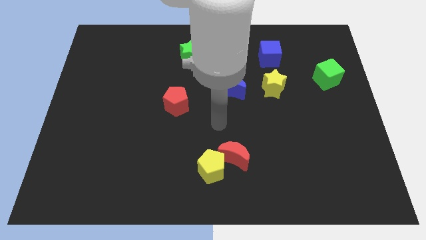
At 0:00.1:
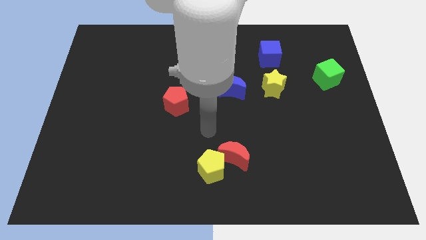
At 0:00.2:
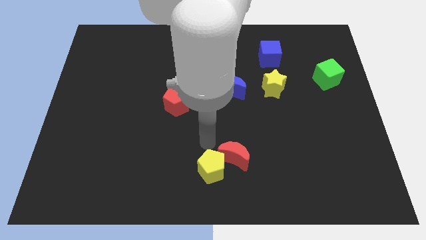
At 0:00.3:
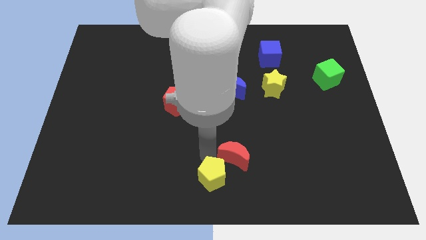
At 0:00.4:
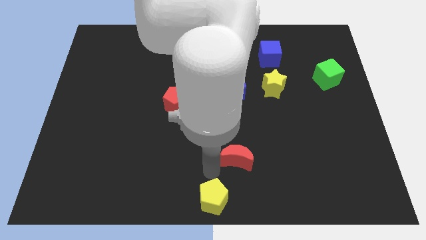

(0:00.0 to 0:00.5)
move the red moon away from the yellow pentagon

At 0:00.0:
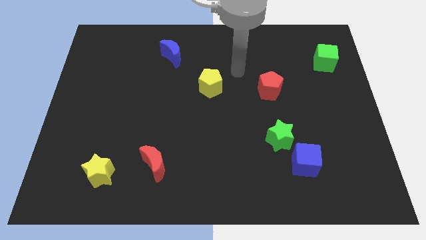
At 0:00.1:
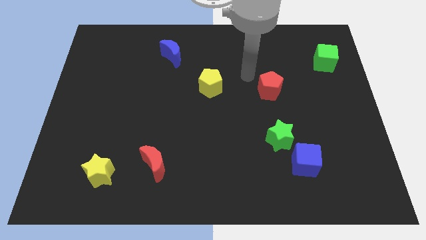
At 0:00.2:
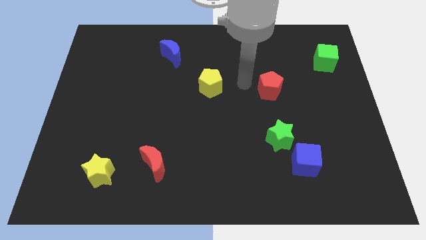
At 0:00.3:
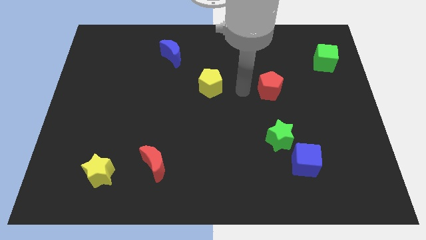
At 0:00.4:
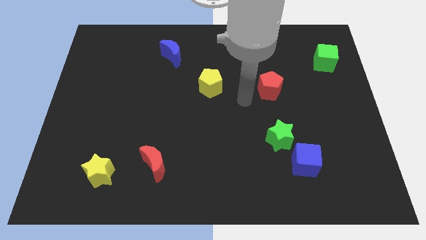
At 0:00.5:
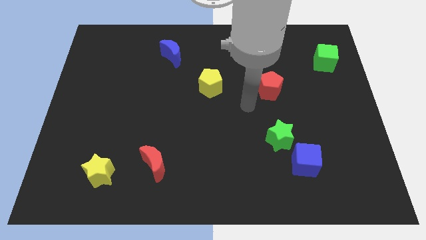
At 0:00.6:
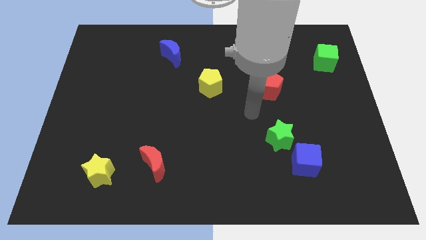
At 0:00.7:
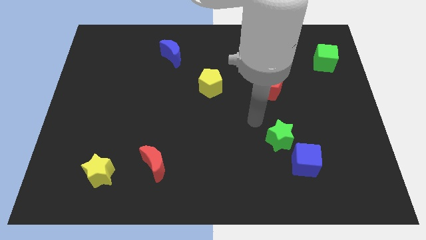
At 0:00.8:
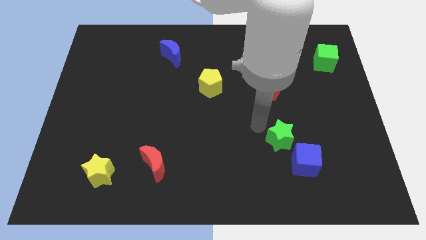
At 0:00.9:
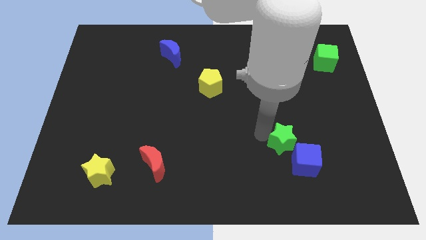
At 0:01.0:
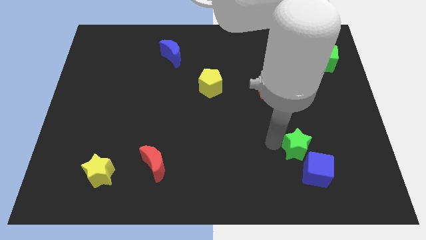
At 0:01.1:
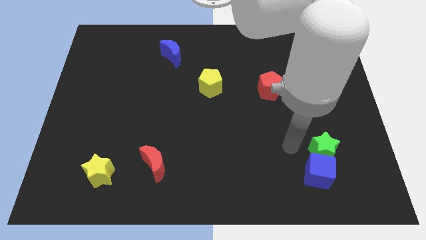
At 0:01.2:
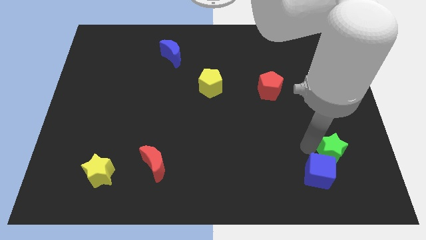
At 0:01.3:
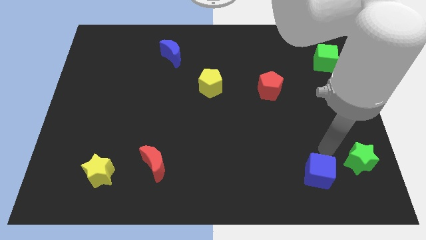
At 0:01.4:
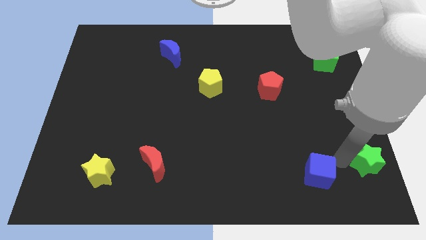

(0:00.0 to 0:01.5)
move the blue cube away from the green star

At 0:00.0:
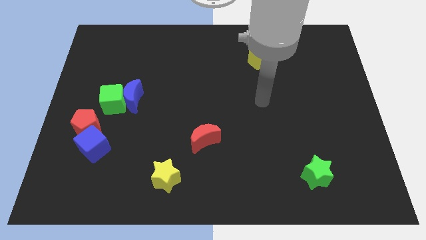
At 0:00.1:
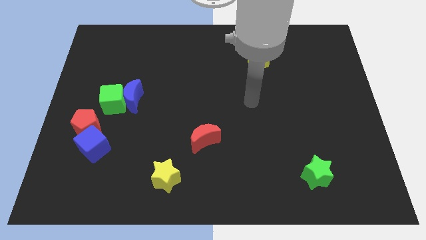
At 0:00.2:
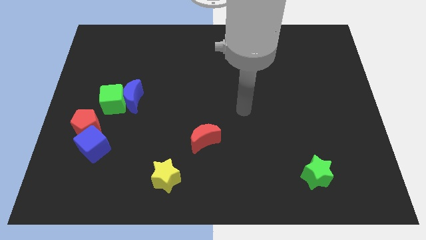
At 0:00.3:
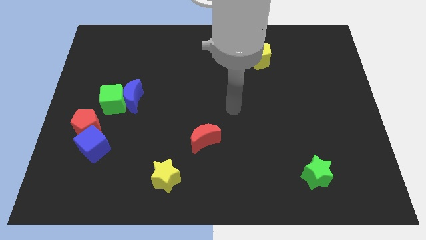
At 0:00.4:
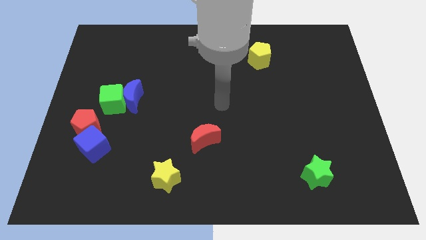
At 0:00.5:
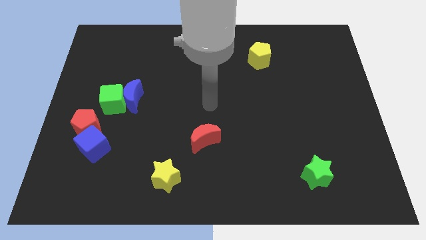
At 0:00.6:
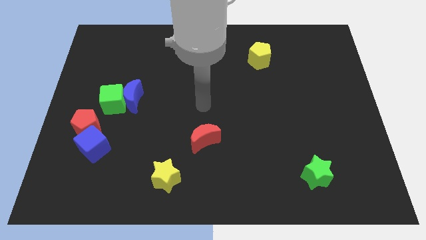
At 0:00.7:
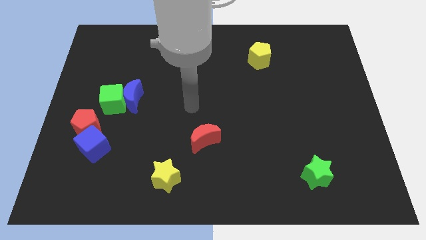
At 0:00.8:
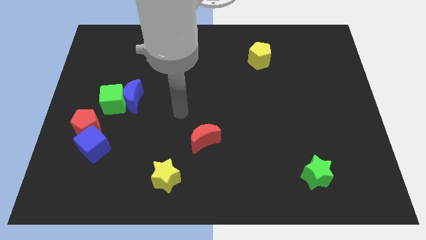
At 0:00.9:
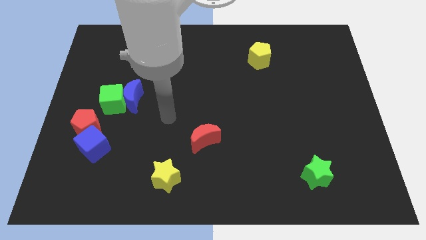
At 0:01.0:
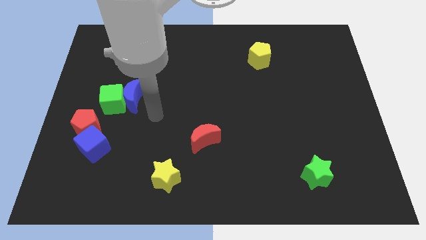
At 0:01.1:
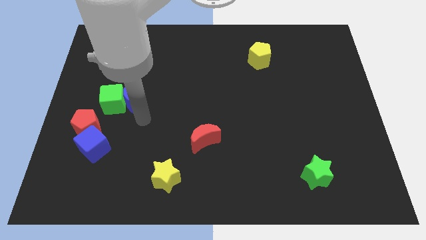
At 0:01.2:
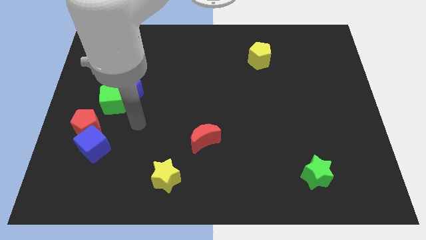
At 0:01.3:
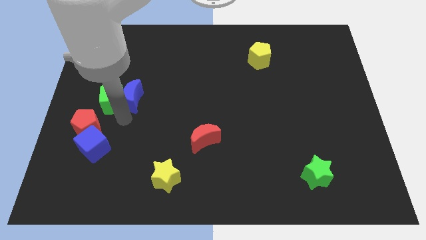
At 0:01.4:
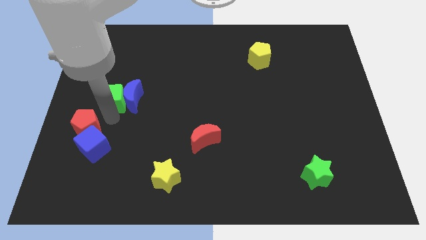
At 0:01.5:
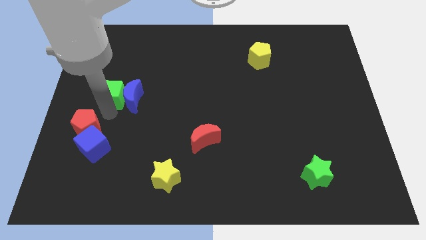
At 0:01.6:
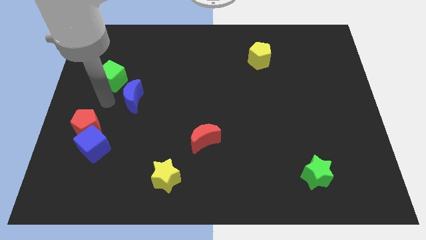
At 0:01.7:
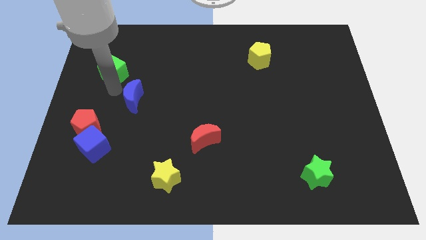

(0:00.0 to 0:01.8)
move the blue moon away from the green cube

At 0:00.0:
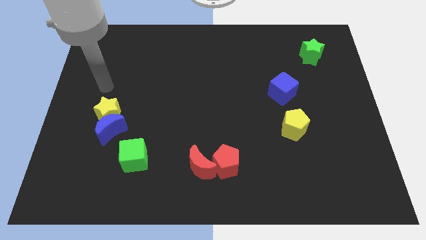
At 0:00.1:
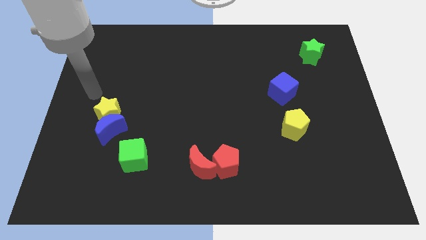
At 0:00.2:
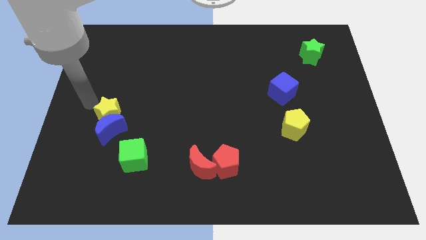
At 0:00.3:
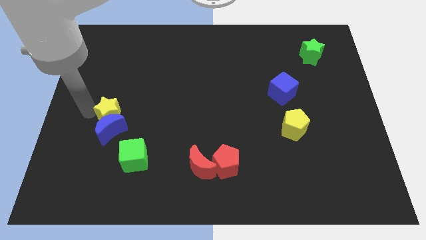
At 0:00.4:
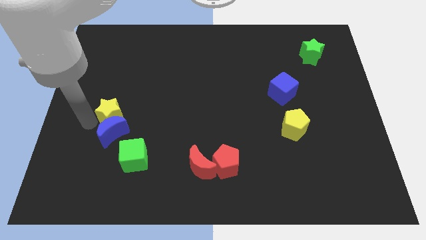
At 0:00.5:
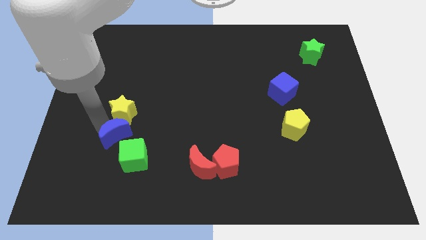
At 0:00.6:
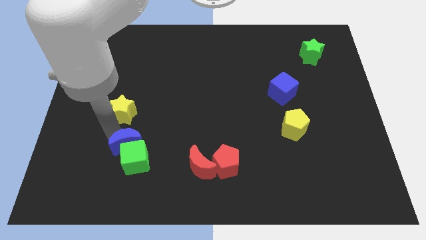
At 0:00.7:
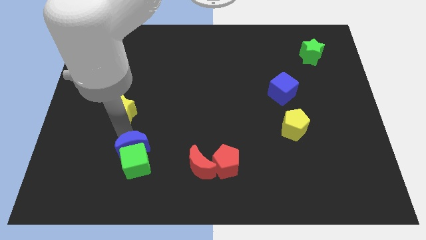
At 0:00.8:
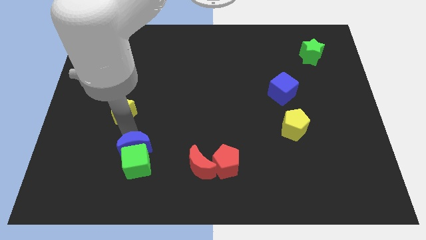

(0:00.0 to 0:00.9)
separate the yellow star from the blue moon

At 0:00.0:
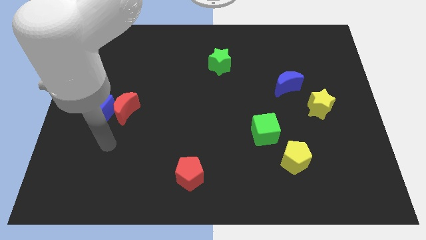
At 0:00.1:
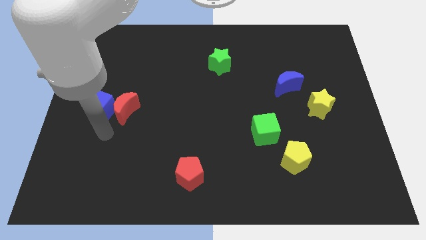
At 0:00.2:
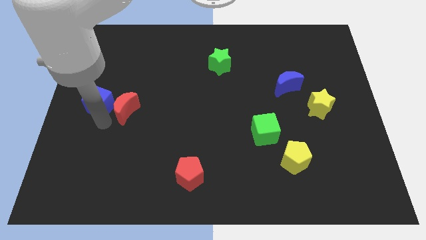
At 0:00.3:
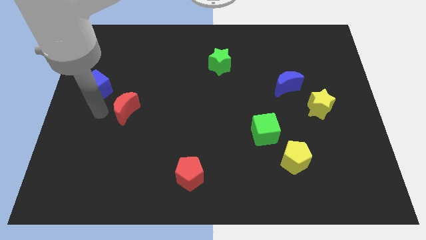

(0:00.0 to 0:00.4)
separate the red moon from the blue cube

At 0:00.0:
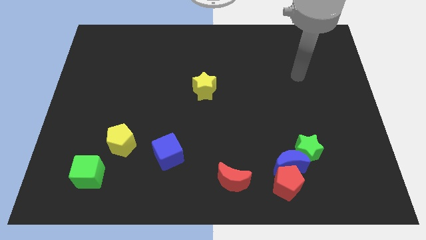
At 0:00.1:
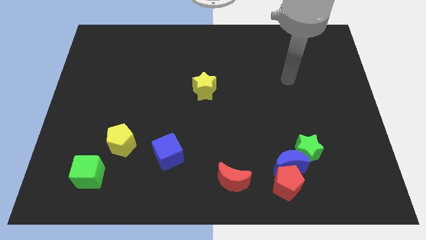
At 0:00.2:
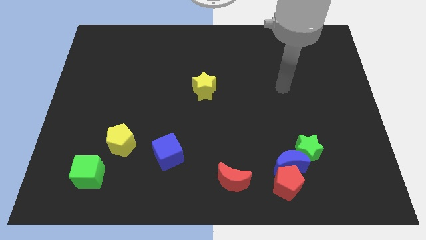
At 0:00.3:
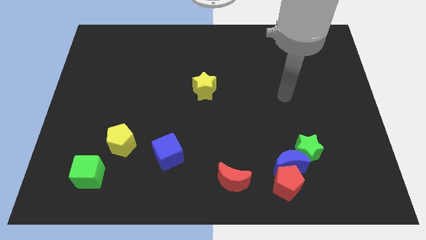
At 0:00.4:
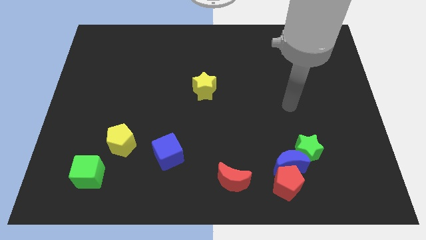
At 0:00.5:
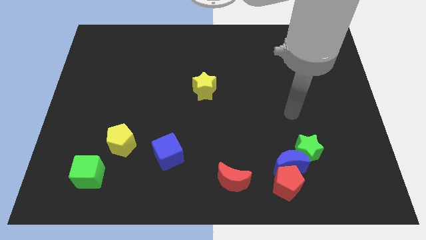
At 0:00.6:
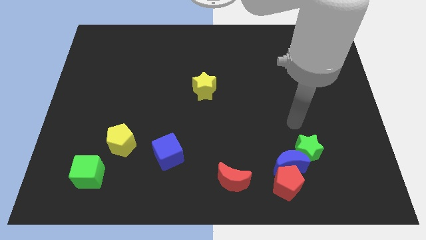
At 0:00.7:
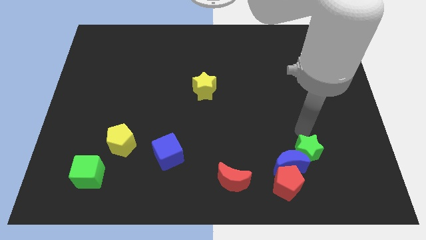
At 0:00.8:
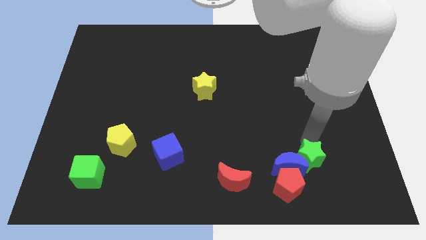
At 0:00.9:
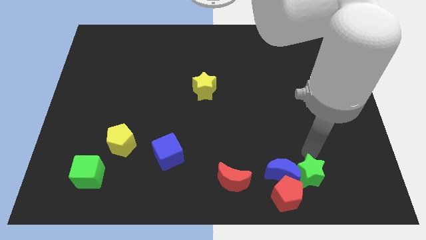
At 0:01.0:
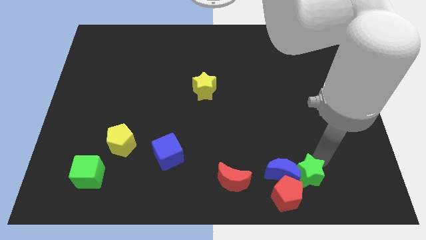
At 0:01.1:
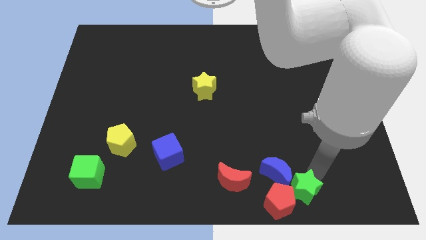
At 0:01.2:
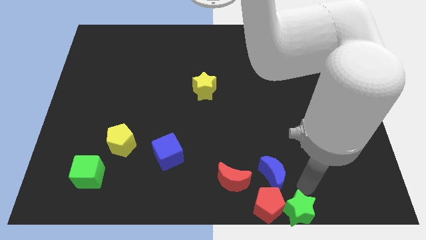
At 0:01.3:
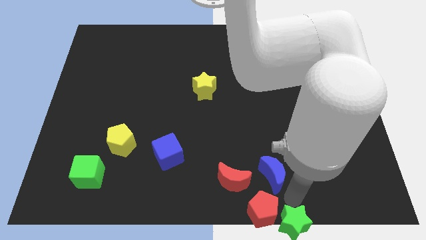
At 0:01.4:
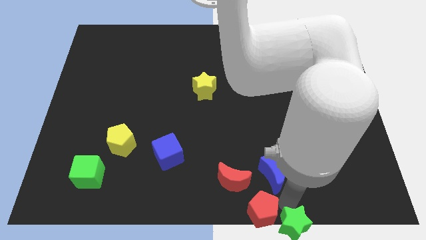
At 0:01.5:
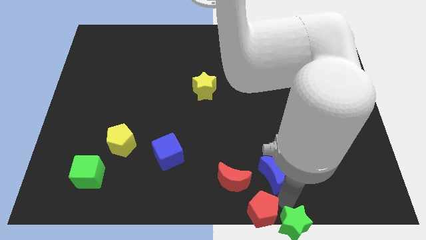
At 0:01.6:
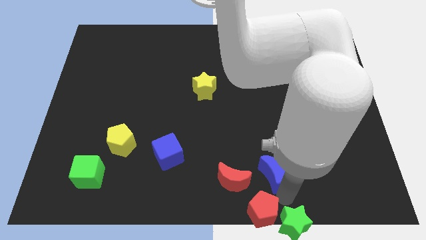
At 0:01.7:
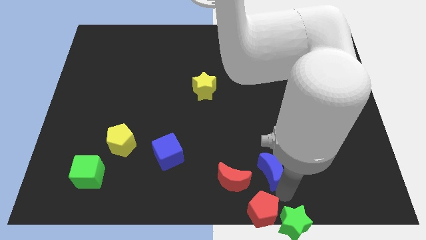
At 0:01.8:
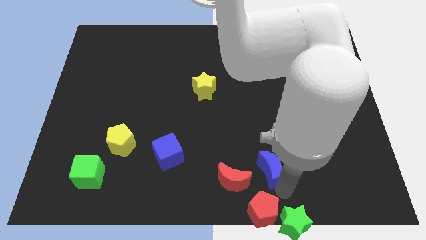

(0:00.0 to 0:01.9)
move the blue moon away from the red pentagon and green star

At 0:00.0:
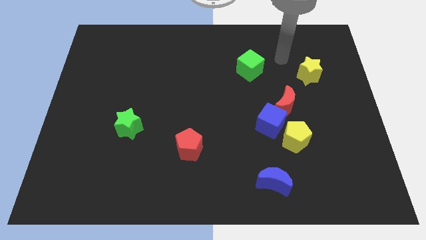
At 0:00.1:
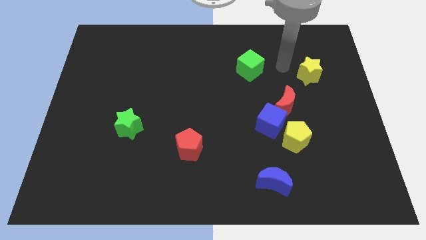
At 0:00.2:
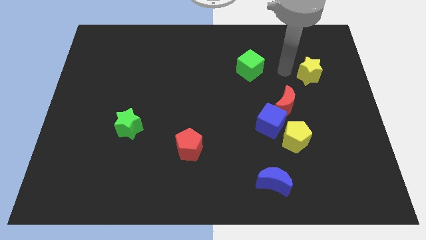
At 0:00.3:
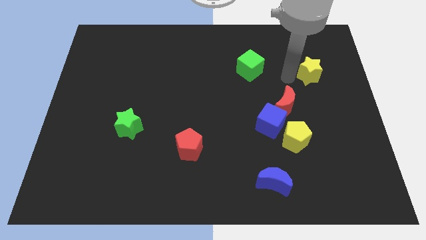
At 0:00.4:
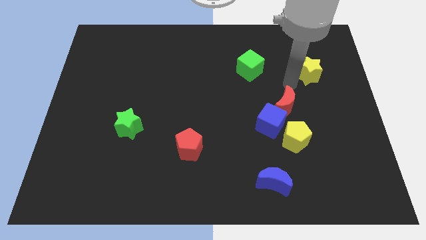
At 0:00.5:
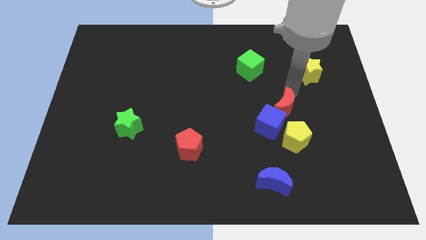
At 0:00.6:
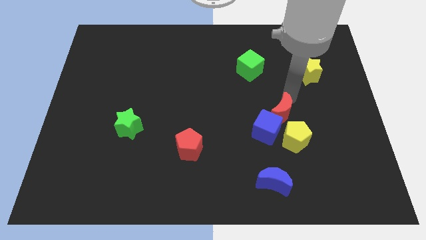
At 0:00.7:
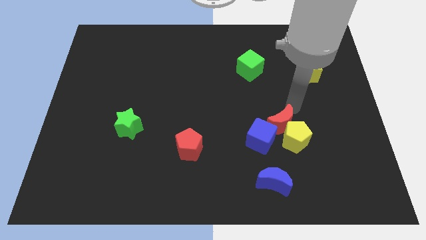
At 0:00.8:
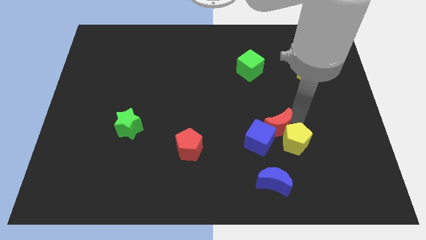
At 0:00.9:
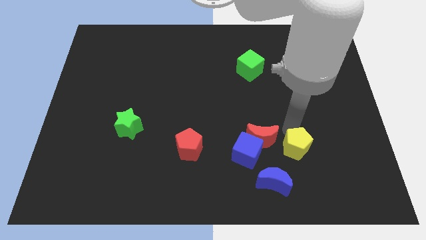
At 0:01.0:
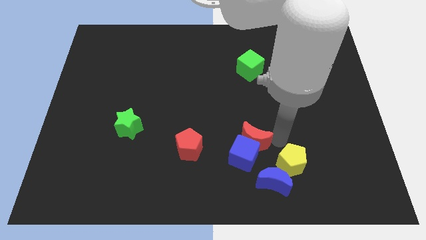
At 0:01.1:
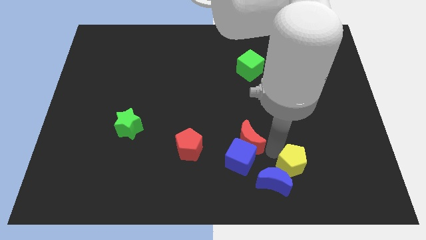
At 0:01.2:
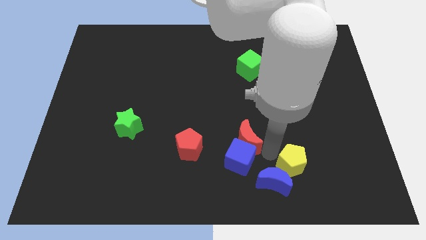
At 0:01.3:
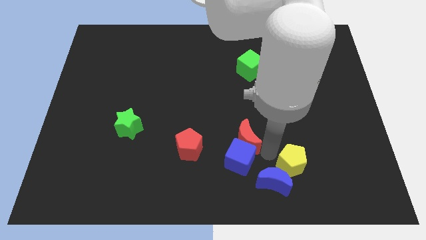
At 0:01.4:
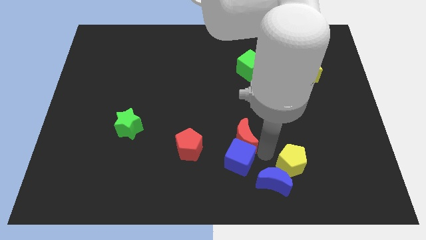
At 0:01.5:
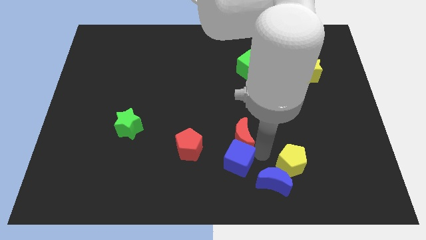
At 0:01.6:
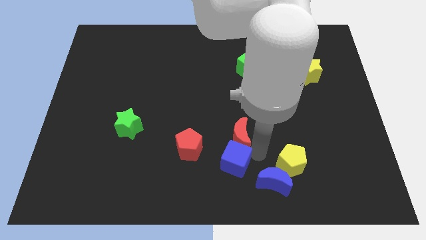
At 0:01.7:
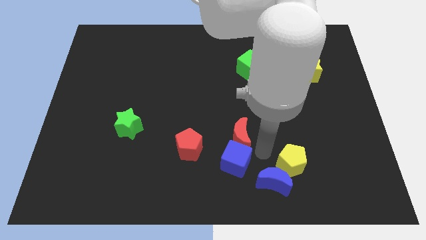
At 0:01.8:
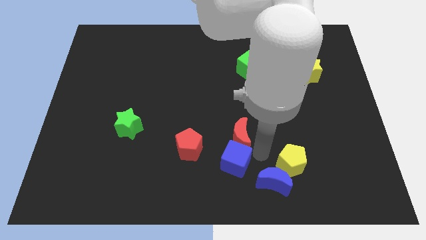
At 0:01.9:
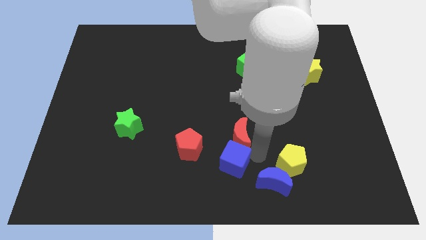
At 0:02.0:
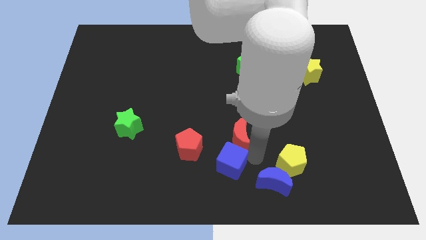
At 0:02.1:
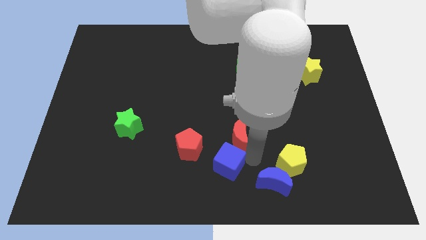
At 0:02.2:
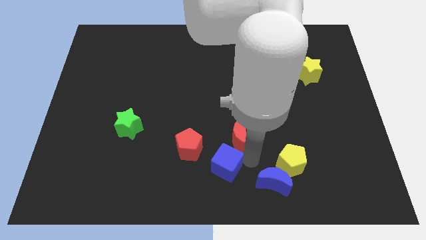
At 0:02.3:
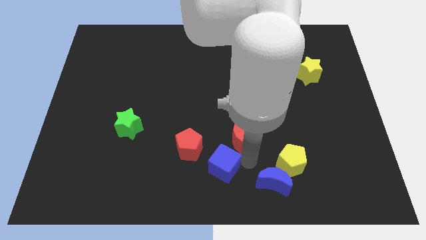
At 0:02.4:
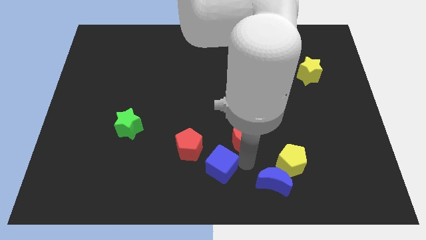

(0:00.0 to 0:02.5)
separate the blue cube from the red moon and yellow pentagon
